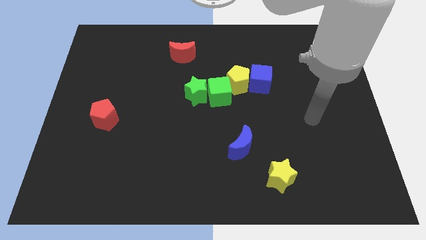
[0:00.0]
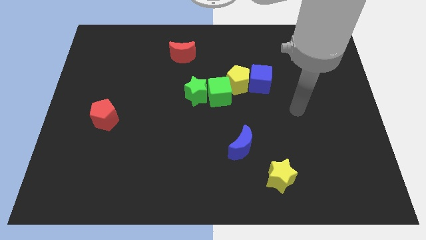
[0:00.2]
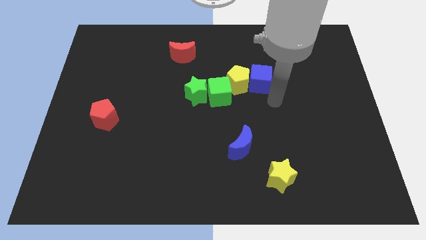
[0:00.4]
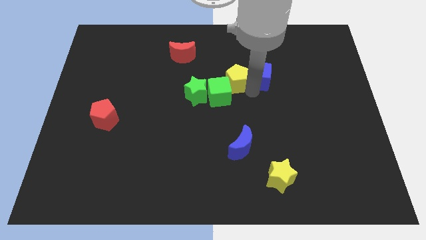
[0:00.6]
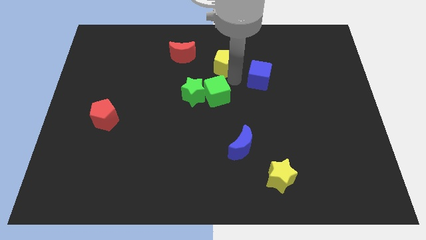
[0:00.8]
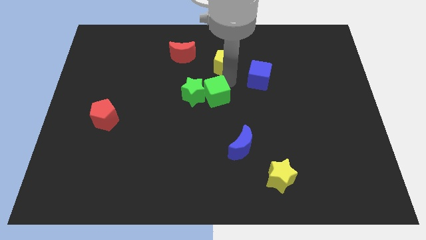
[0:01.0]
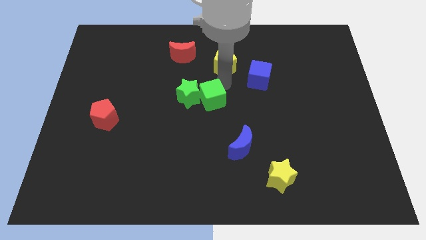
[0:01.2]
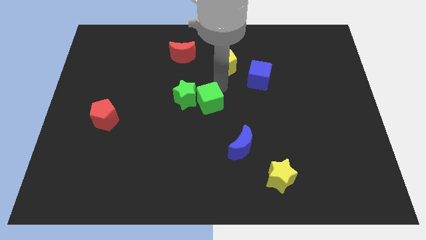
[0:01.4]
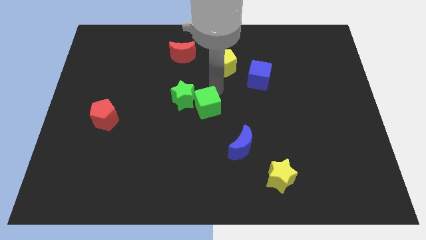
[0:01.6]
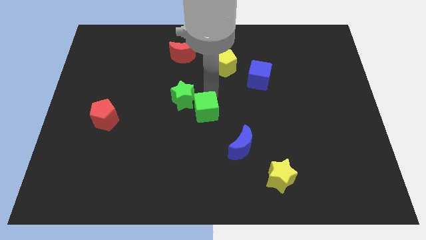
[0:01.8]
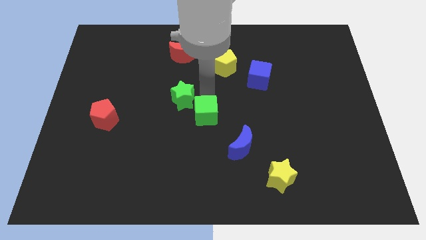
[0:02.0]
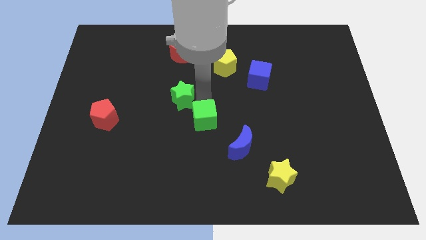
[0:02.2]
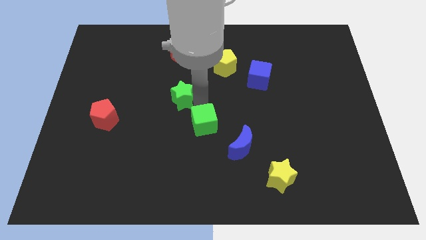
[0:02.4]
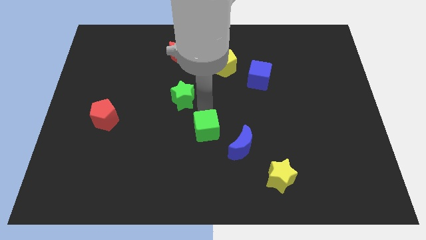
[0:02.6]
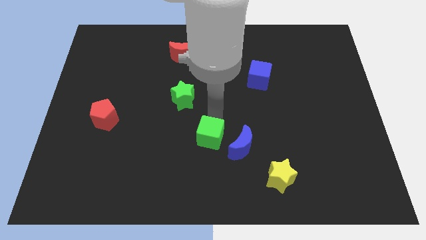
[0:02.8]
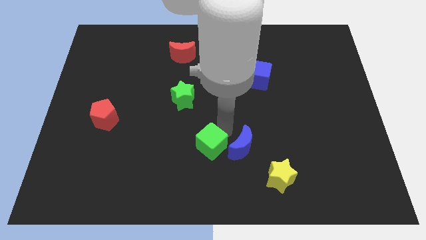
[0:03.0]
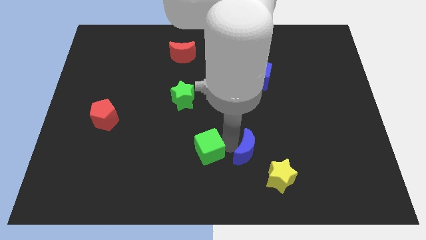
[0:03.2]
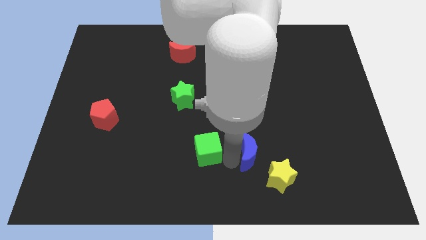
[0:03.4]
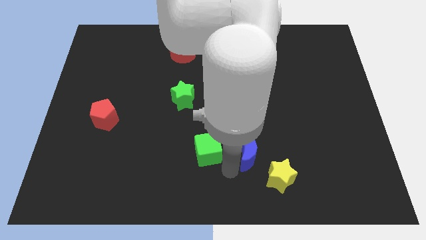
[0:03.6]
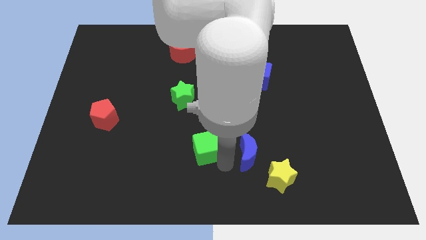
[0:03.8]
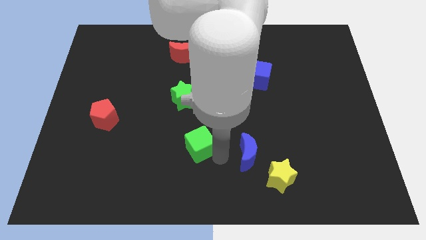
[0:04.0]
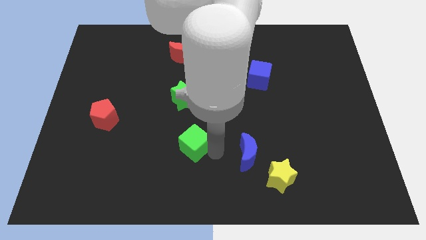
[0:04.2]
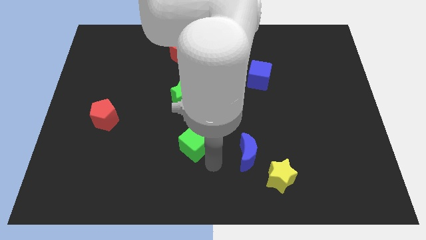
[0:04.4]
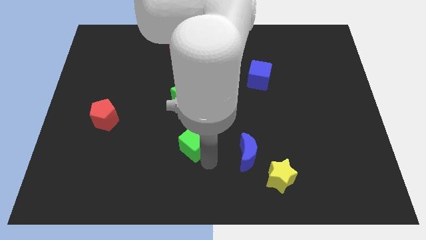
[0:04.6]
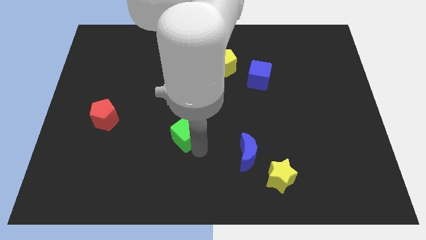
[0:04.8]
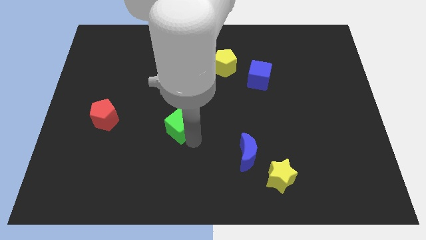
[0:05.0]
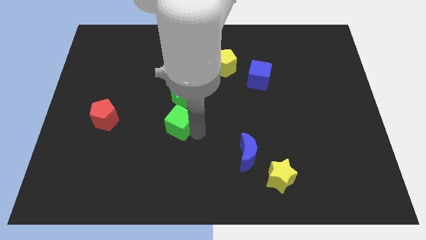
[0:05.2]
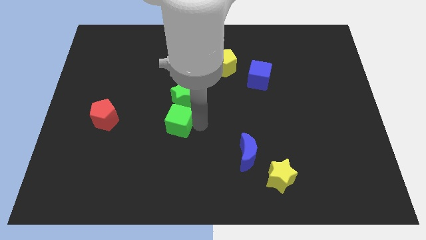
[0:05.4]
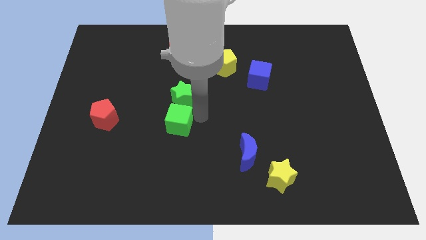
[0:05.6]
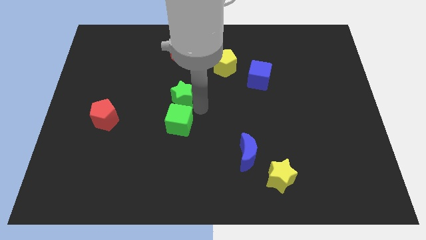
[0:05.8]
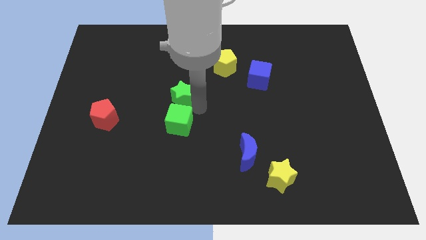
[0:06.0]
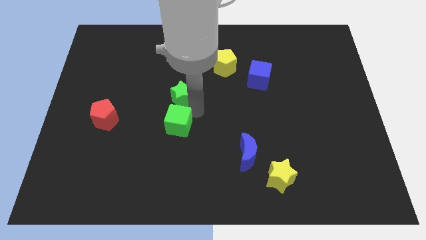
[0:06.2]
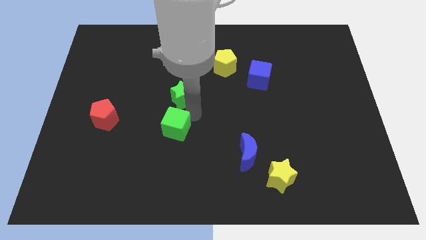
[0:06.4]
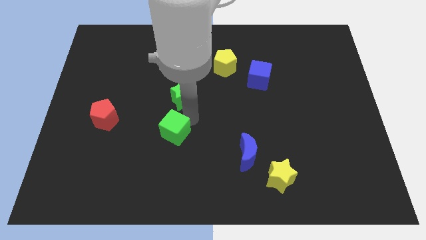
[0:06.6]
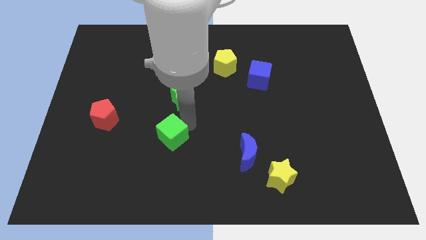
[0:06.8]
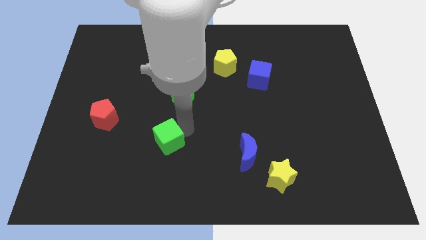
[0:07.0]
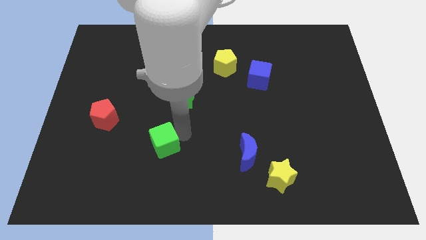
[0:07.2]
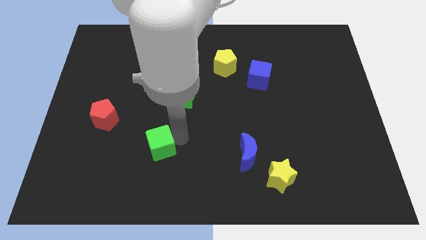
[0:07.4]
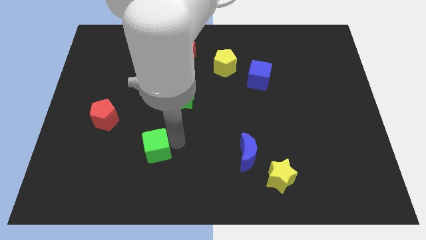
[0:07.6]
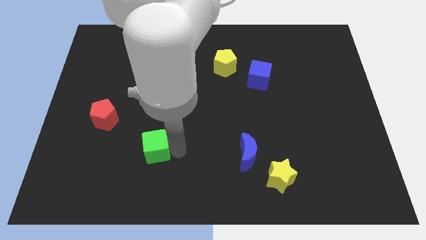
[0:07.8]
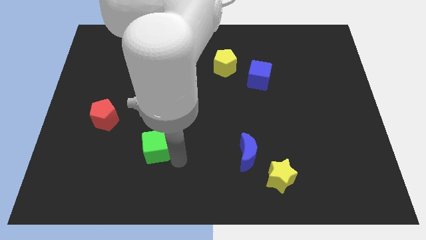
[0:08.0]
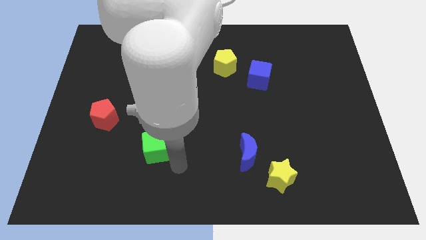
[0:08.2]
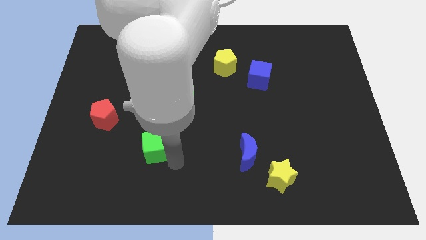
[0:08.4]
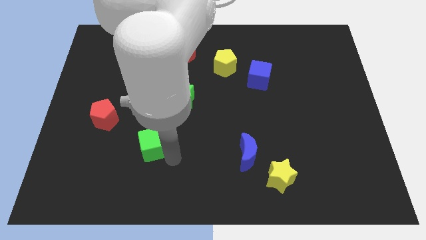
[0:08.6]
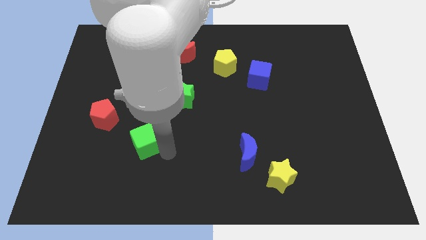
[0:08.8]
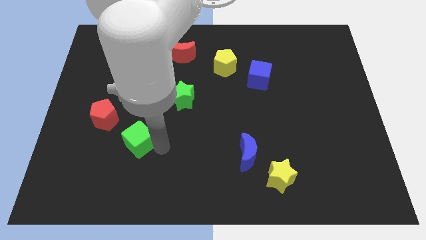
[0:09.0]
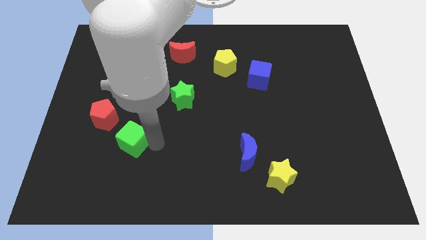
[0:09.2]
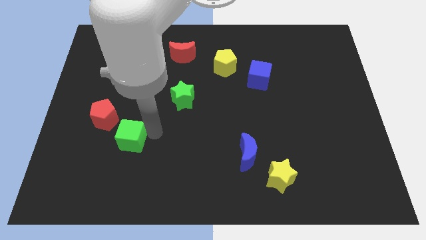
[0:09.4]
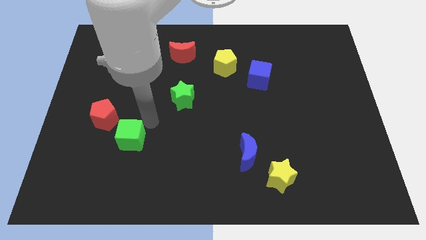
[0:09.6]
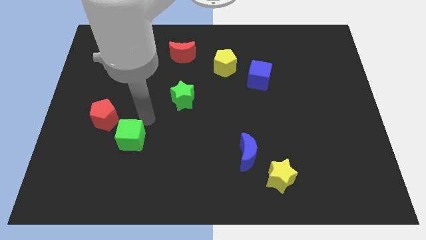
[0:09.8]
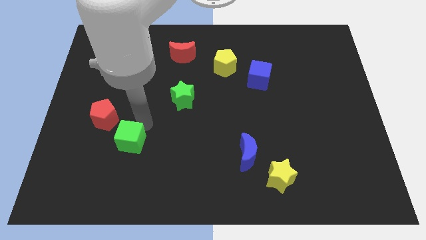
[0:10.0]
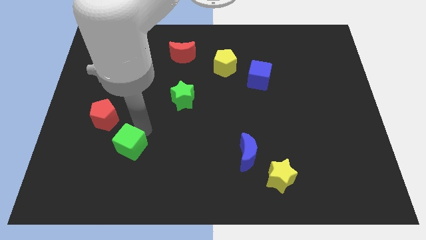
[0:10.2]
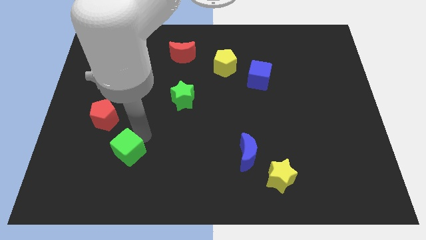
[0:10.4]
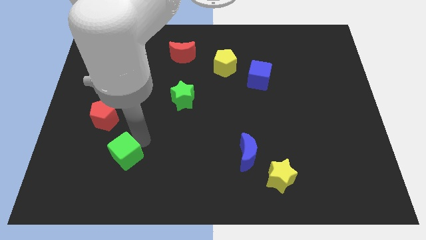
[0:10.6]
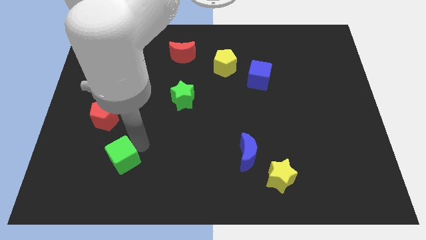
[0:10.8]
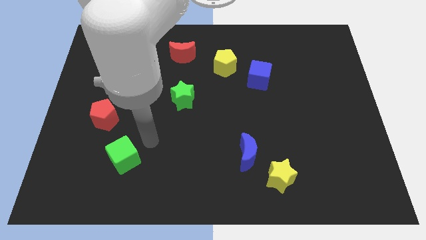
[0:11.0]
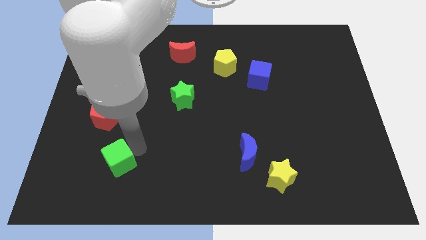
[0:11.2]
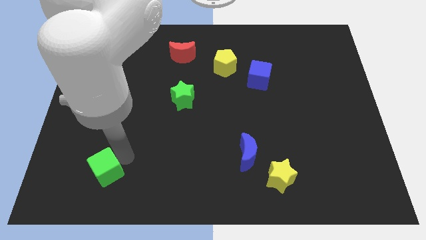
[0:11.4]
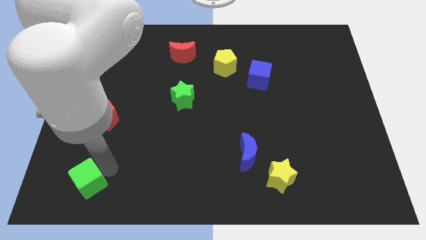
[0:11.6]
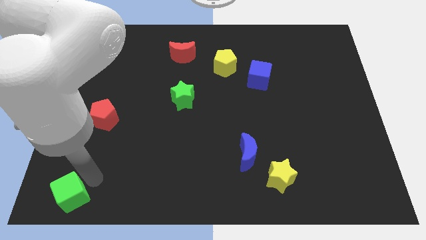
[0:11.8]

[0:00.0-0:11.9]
slide the green cube to the bottom left of the board
